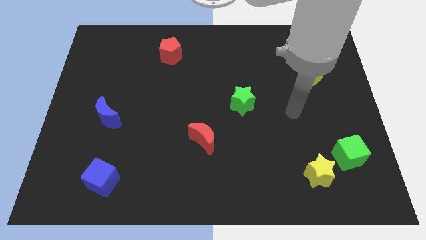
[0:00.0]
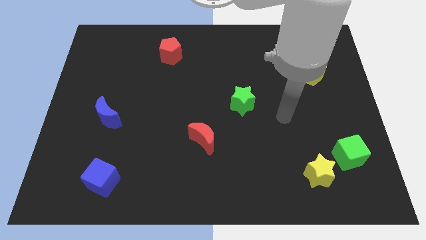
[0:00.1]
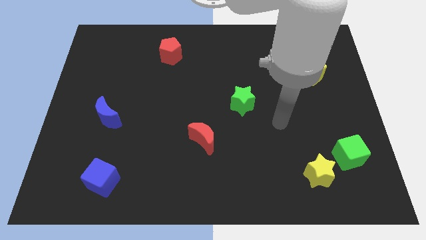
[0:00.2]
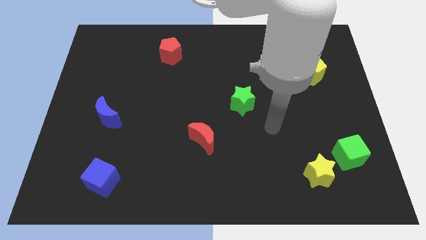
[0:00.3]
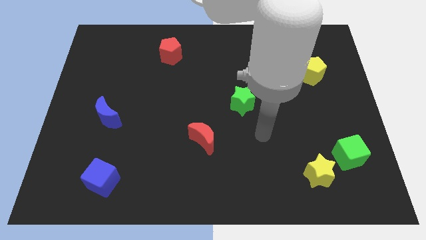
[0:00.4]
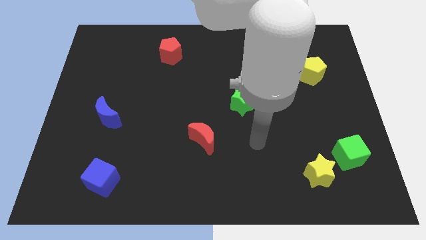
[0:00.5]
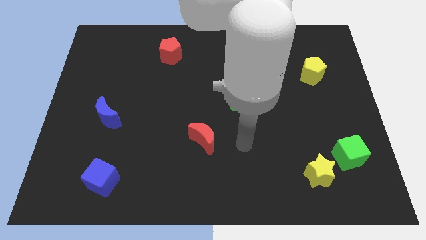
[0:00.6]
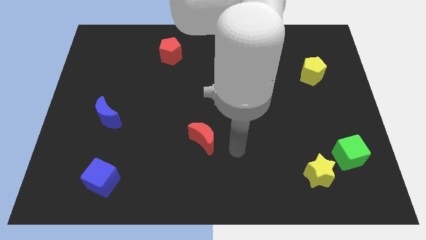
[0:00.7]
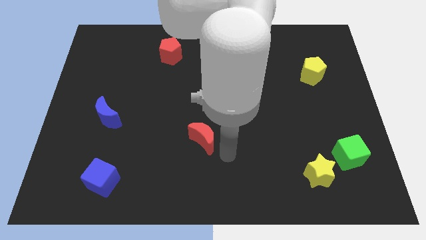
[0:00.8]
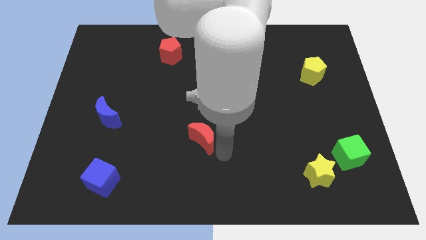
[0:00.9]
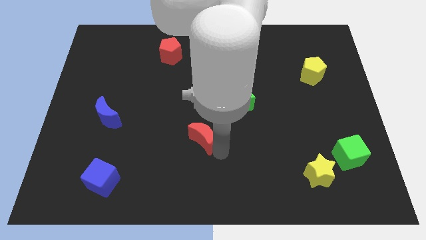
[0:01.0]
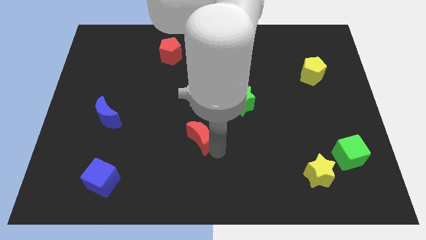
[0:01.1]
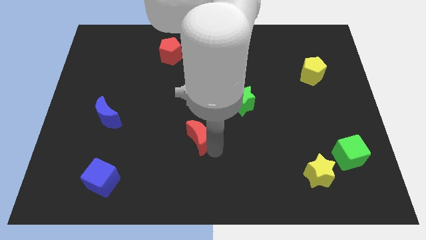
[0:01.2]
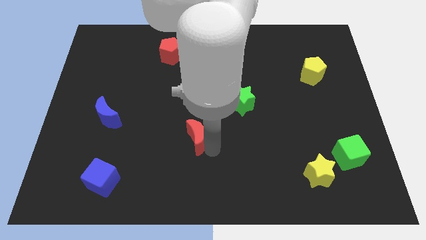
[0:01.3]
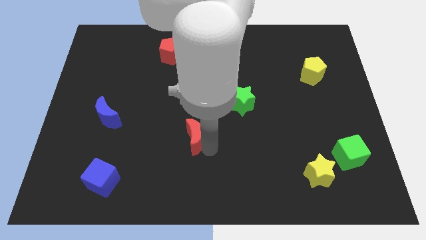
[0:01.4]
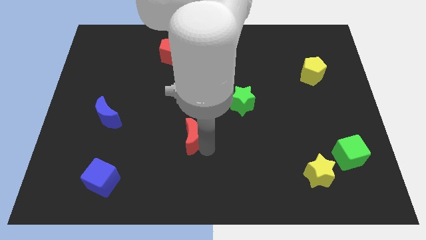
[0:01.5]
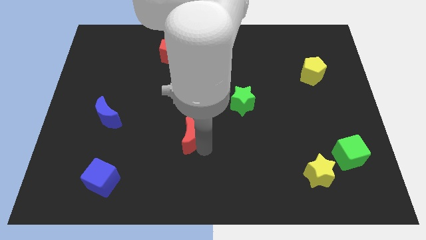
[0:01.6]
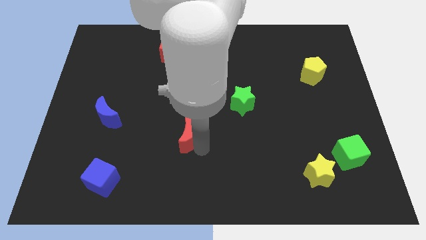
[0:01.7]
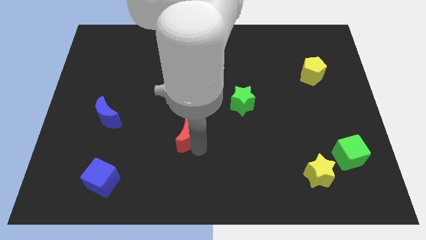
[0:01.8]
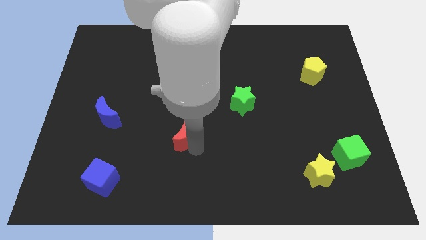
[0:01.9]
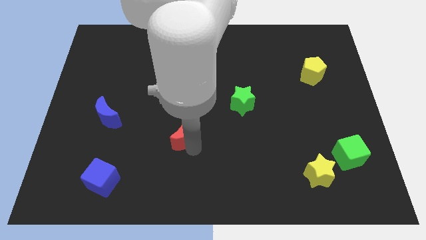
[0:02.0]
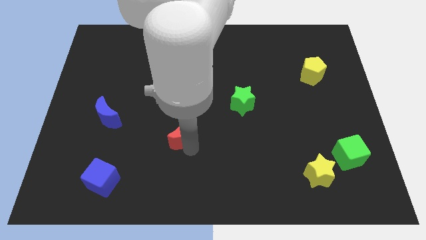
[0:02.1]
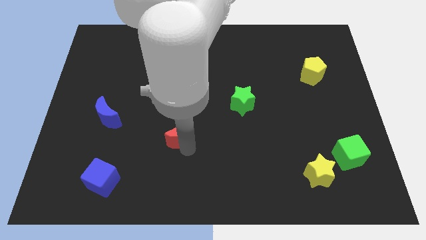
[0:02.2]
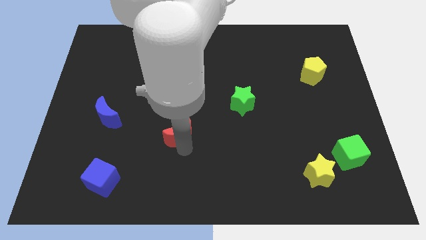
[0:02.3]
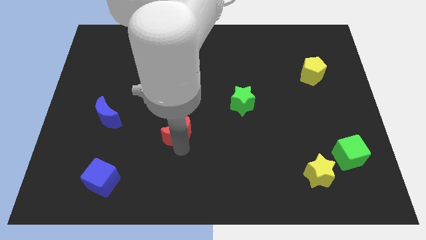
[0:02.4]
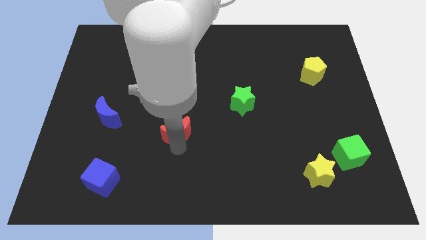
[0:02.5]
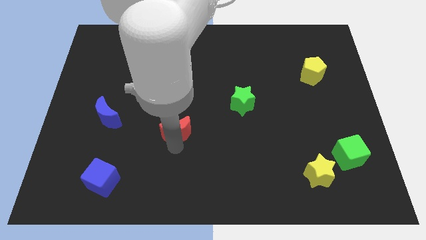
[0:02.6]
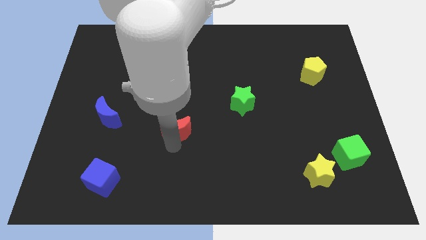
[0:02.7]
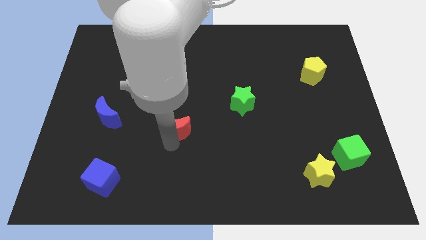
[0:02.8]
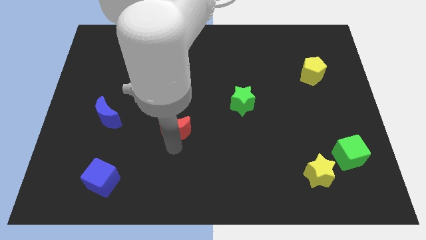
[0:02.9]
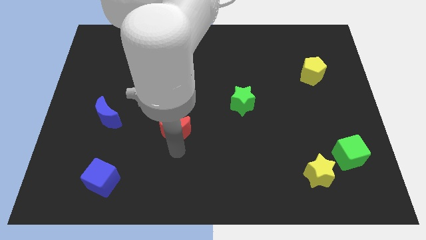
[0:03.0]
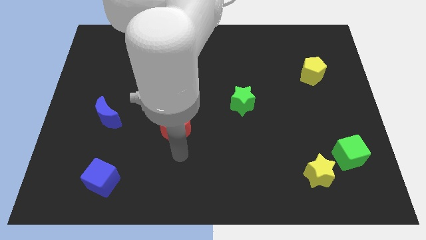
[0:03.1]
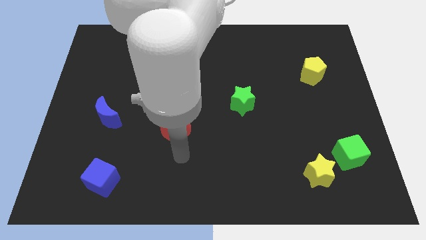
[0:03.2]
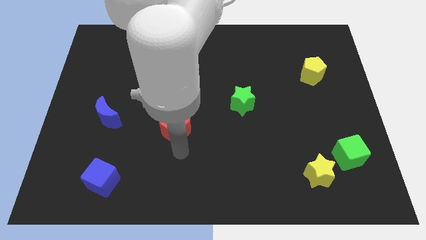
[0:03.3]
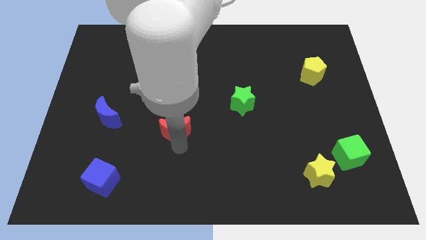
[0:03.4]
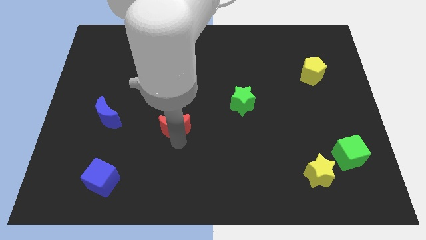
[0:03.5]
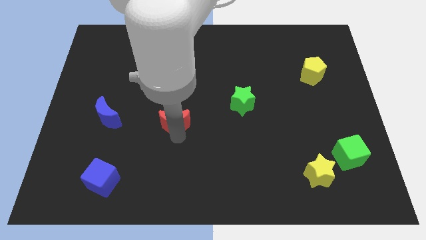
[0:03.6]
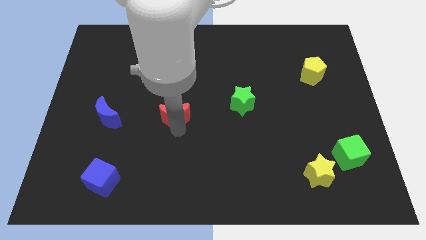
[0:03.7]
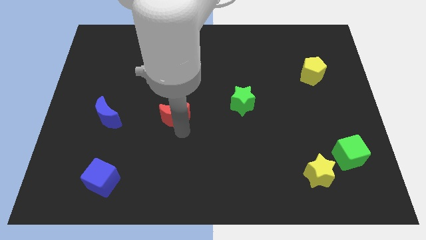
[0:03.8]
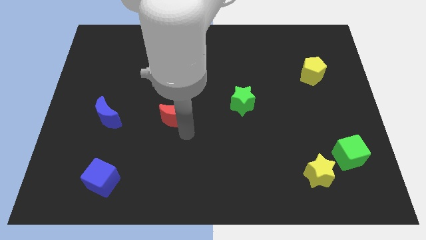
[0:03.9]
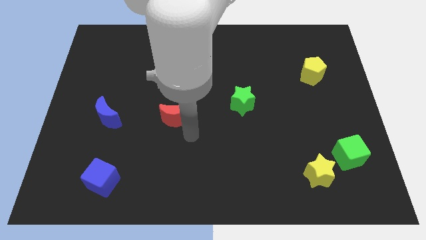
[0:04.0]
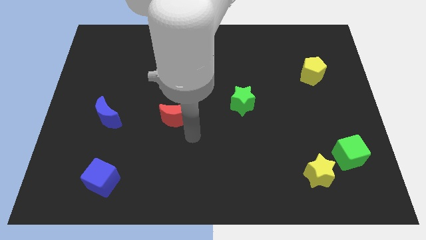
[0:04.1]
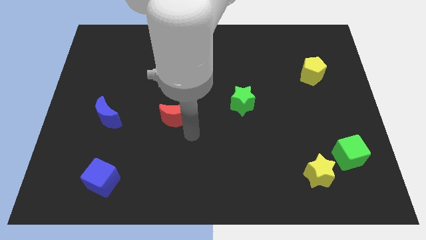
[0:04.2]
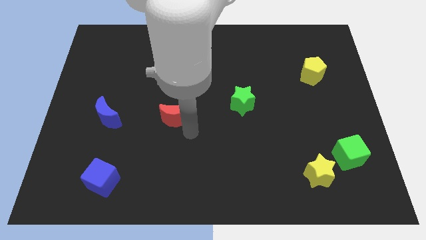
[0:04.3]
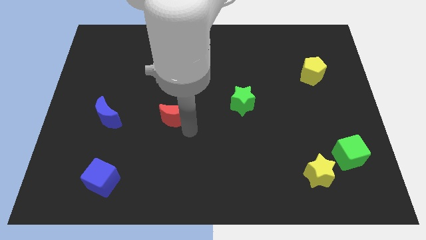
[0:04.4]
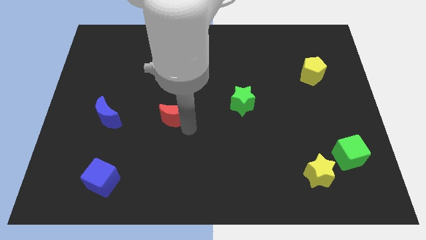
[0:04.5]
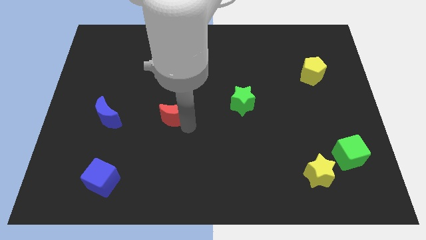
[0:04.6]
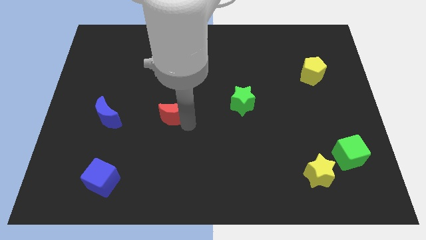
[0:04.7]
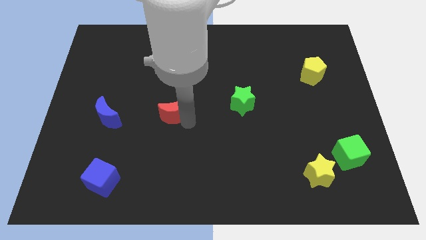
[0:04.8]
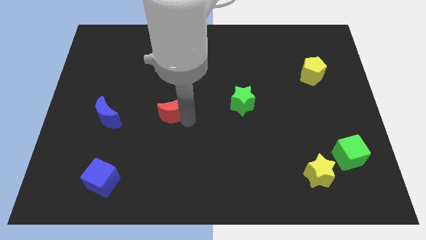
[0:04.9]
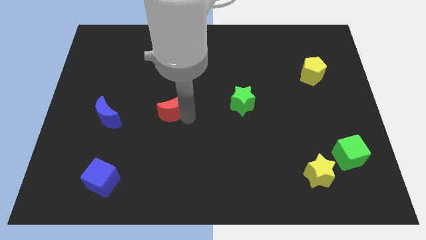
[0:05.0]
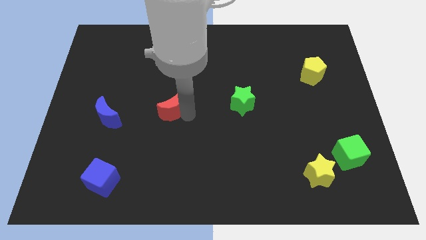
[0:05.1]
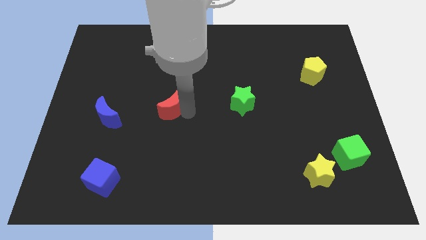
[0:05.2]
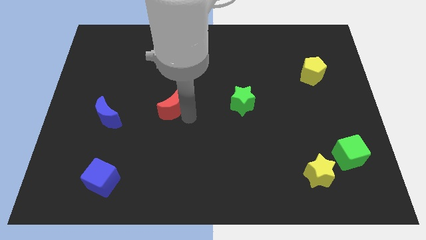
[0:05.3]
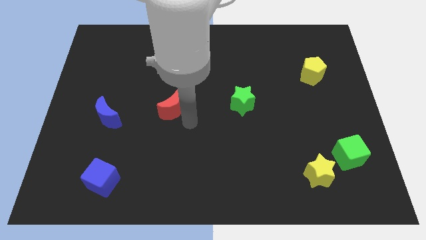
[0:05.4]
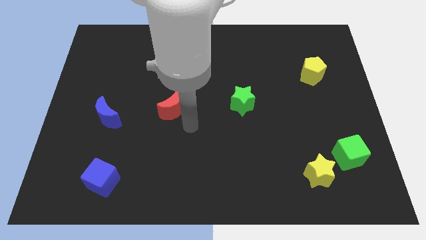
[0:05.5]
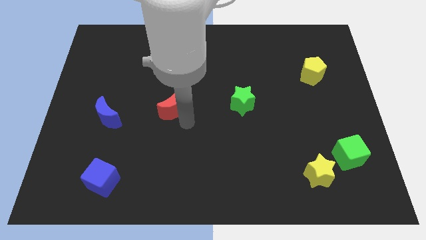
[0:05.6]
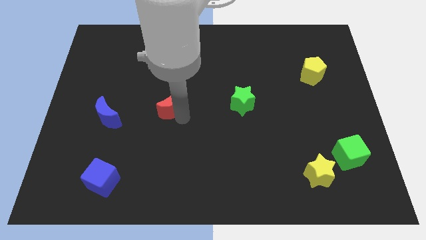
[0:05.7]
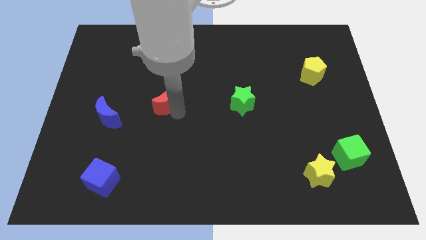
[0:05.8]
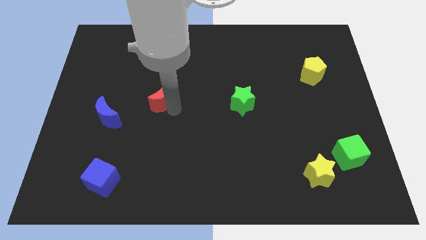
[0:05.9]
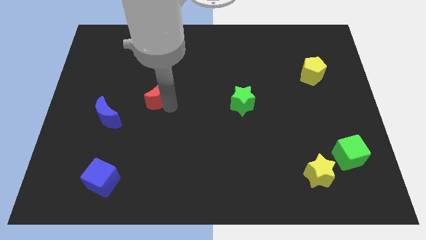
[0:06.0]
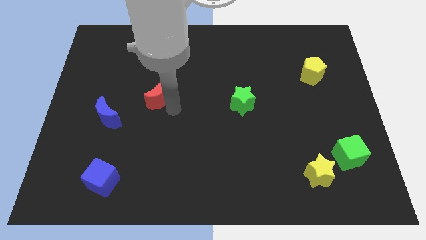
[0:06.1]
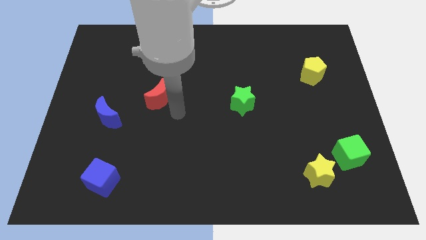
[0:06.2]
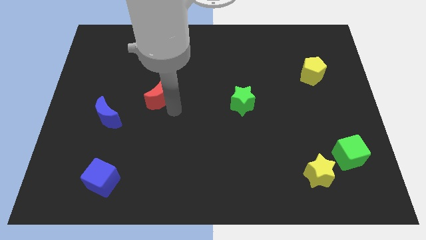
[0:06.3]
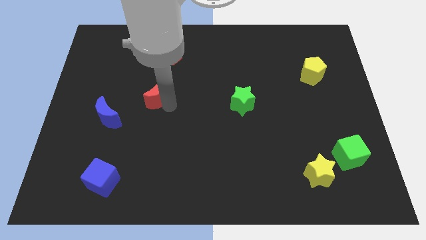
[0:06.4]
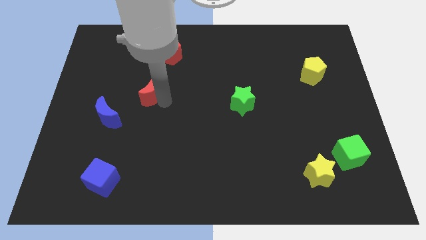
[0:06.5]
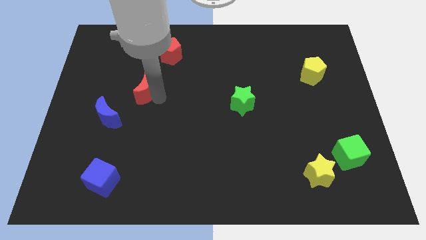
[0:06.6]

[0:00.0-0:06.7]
slide the red moon upwards and to the left

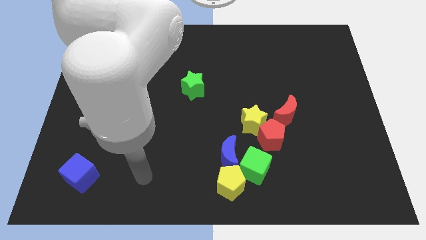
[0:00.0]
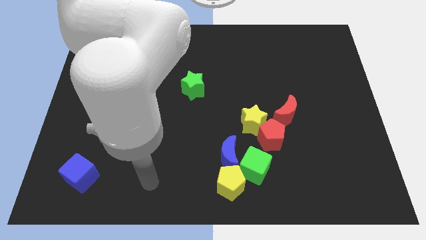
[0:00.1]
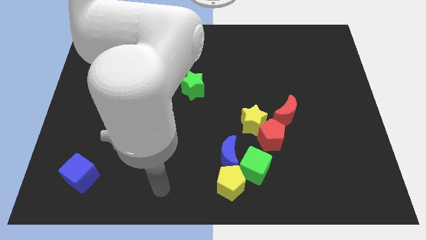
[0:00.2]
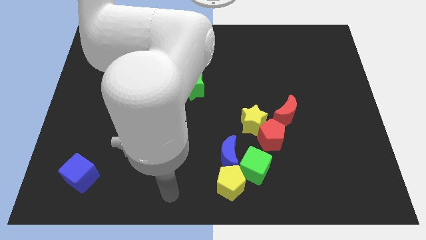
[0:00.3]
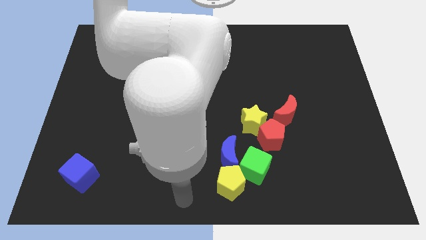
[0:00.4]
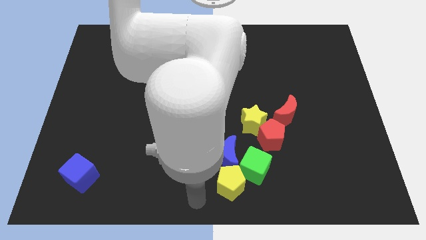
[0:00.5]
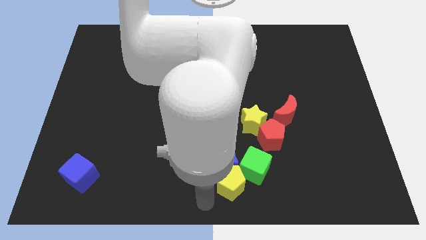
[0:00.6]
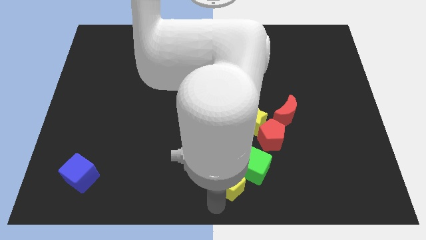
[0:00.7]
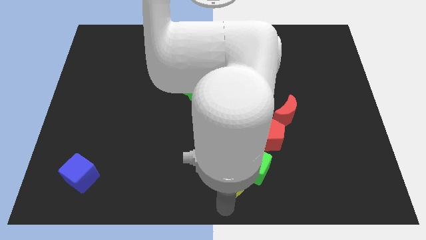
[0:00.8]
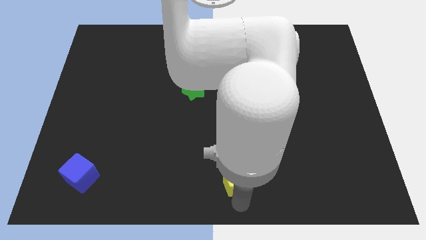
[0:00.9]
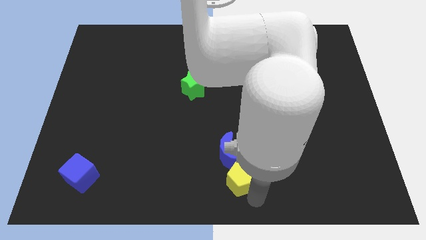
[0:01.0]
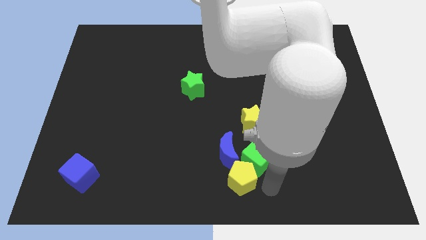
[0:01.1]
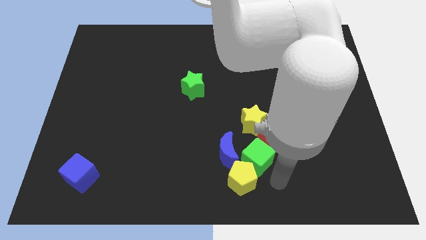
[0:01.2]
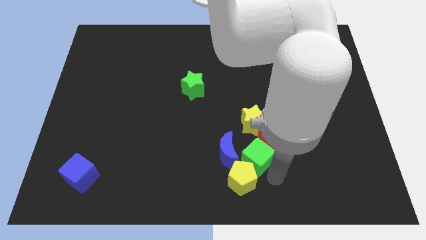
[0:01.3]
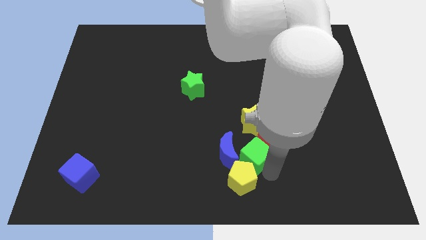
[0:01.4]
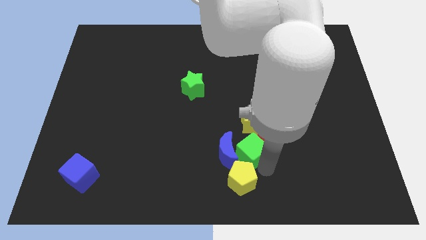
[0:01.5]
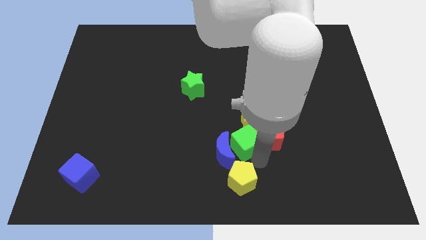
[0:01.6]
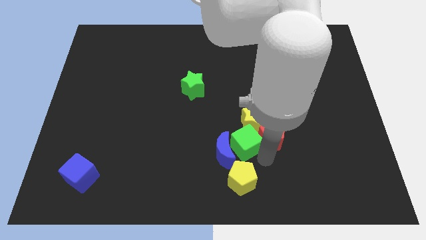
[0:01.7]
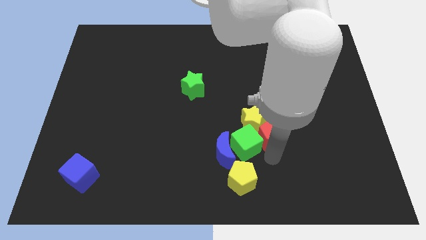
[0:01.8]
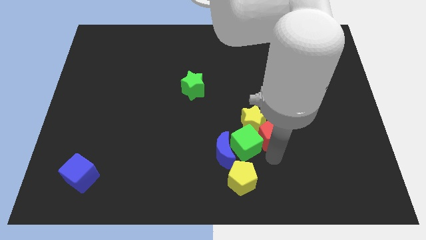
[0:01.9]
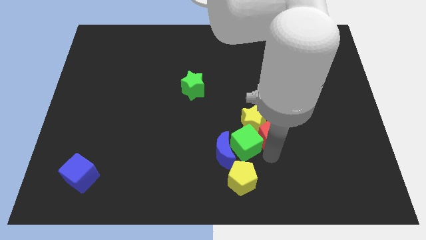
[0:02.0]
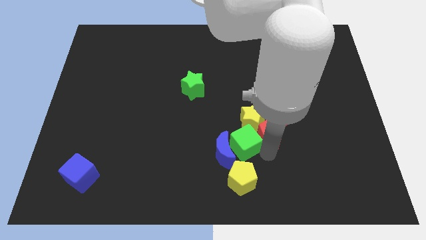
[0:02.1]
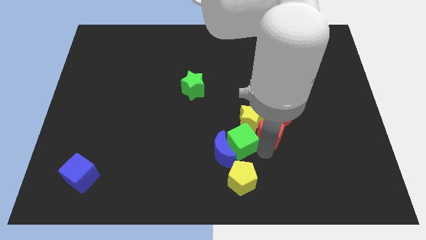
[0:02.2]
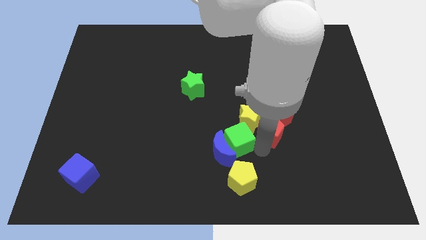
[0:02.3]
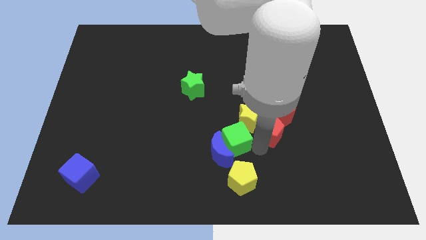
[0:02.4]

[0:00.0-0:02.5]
slightly push the green cube upwards and to the left diagonally
